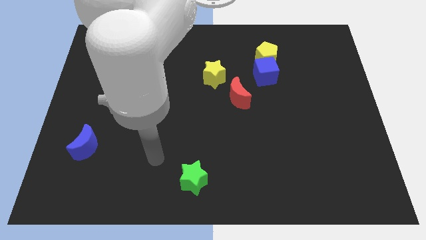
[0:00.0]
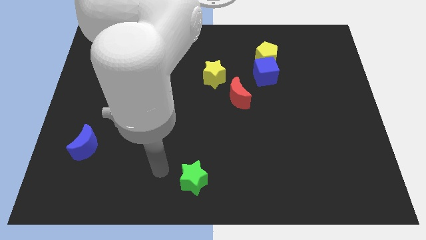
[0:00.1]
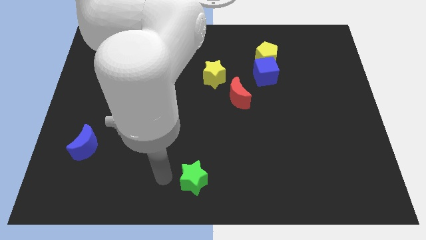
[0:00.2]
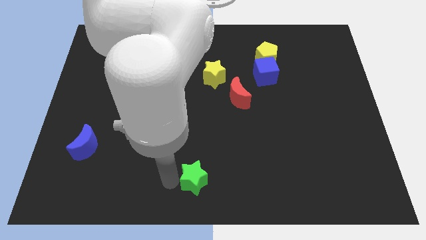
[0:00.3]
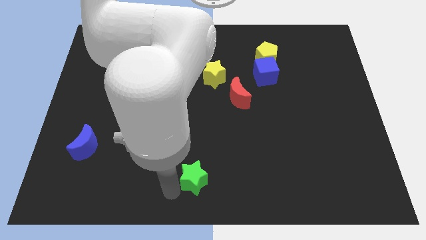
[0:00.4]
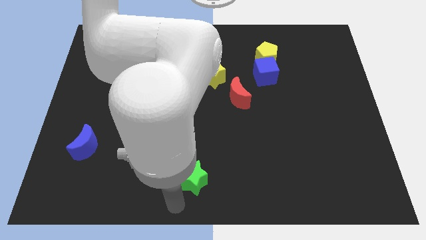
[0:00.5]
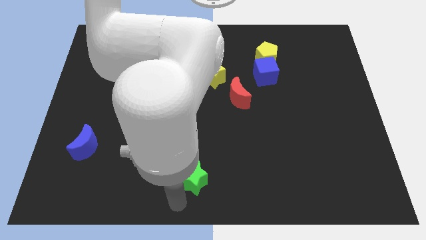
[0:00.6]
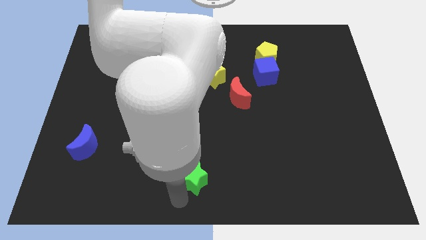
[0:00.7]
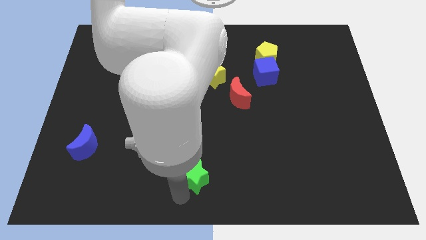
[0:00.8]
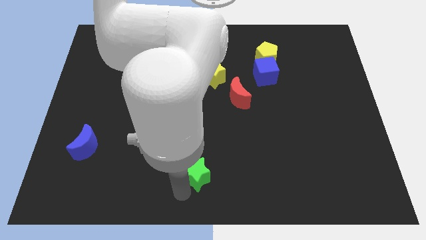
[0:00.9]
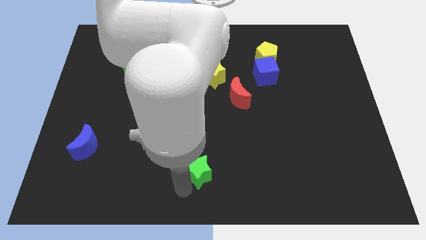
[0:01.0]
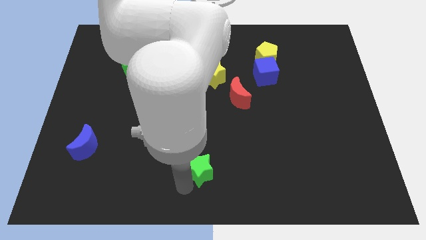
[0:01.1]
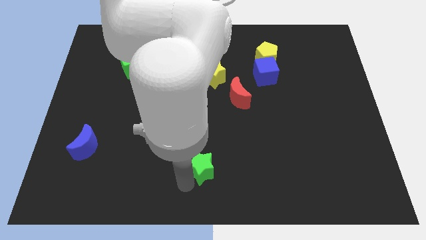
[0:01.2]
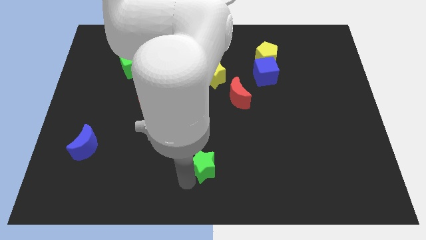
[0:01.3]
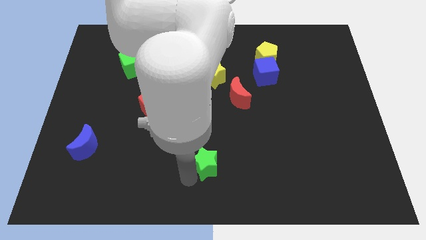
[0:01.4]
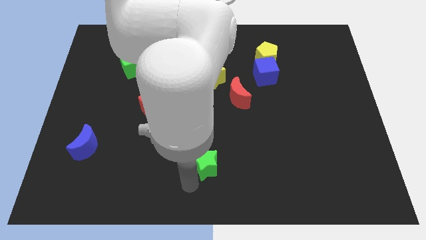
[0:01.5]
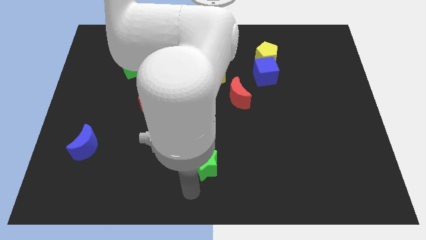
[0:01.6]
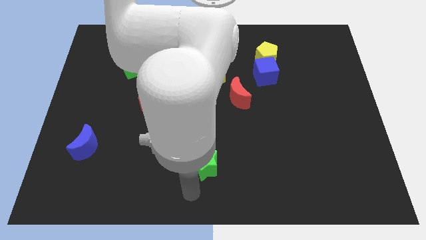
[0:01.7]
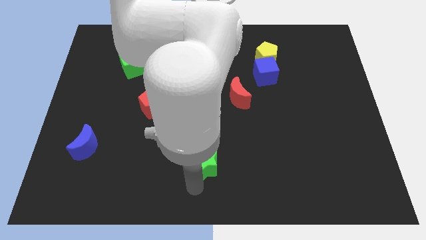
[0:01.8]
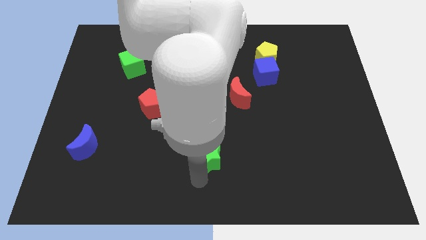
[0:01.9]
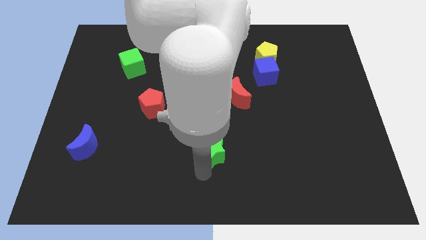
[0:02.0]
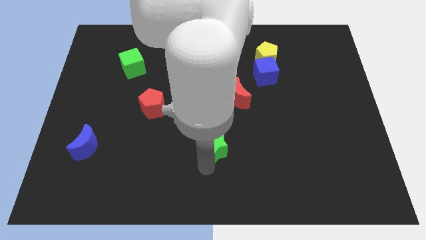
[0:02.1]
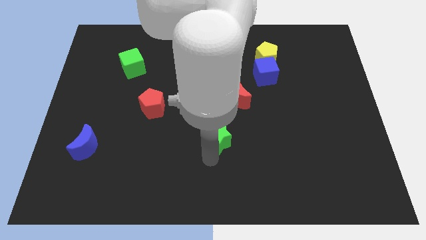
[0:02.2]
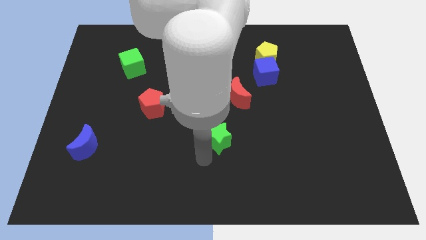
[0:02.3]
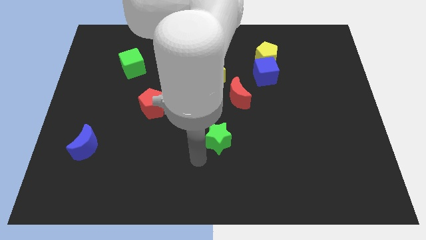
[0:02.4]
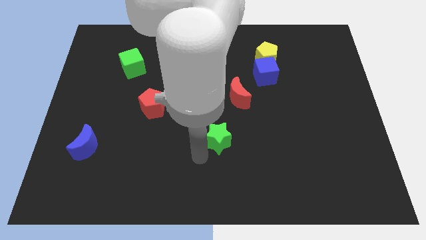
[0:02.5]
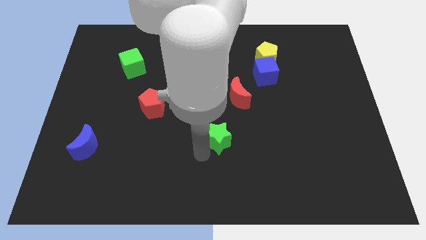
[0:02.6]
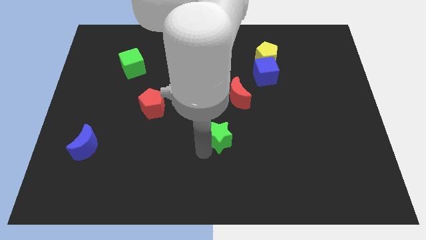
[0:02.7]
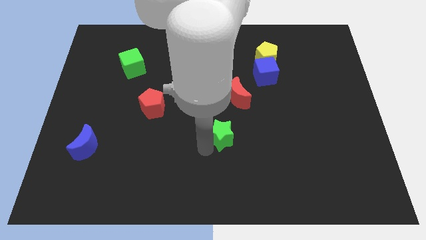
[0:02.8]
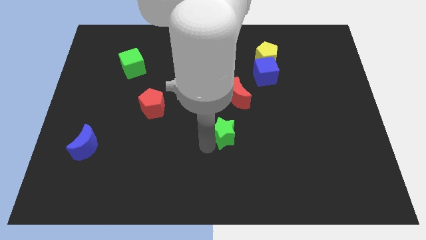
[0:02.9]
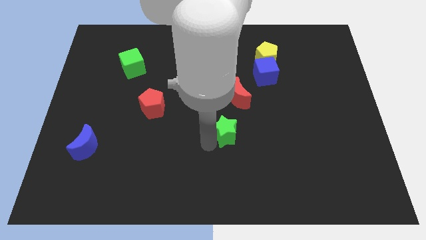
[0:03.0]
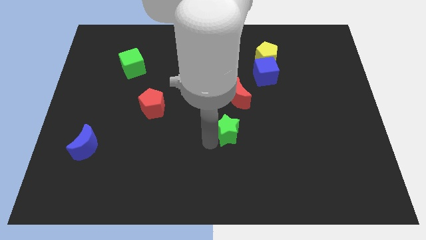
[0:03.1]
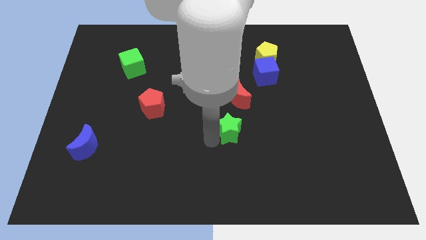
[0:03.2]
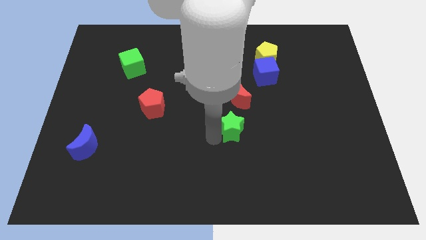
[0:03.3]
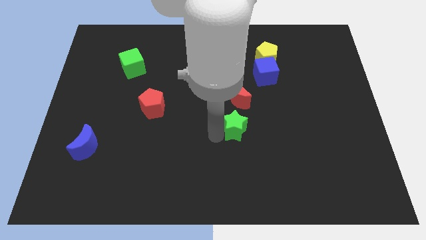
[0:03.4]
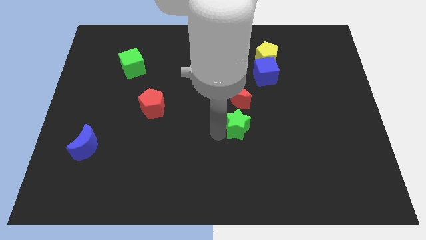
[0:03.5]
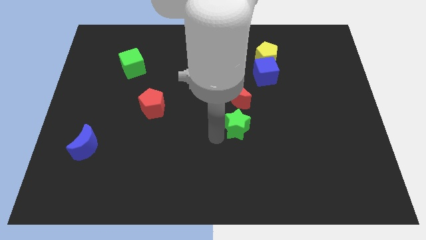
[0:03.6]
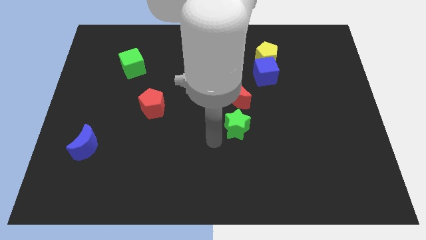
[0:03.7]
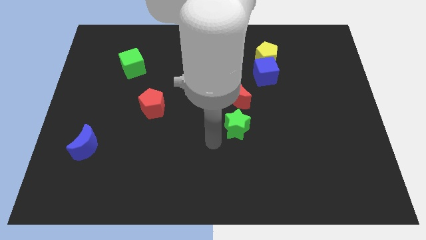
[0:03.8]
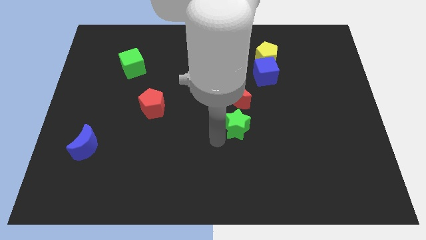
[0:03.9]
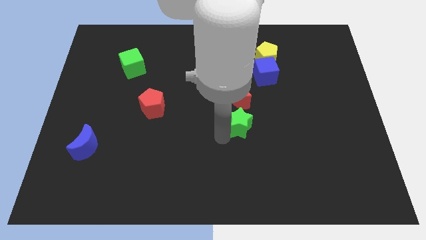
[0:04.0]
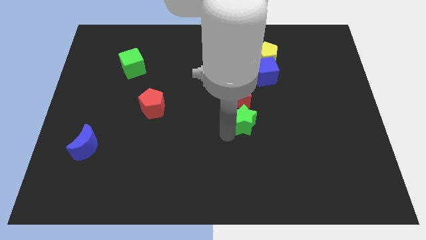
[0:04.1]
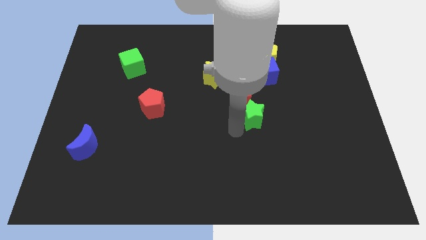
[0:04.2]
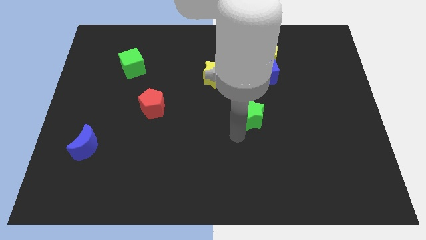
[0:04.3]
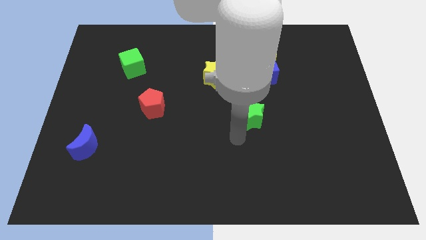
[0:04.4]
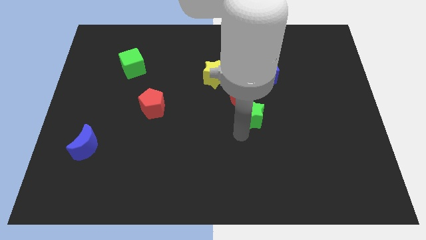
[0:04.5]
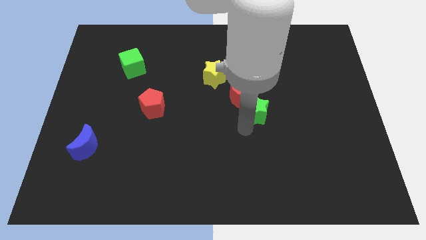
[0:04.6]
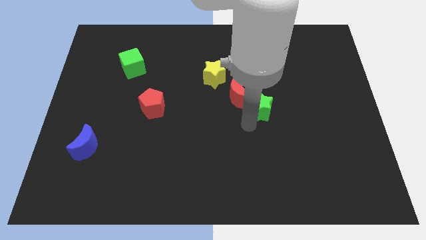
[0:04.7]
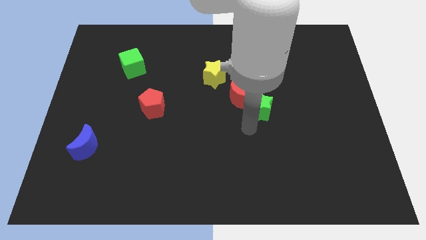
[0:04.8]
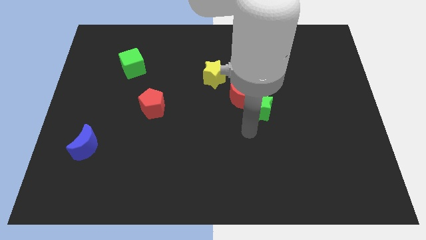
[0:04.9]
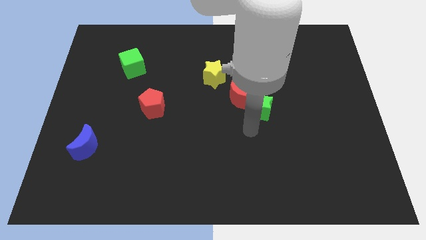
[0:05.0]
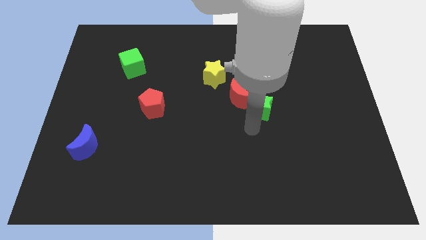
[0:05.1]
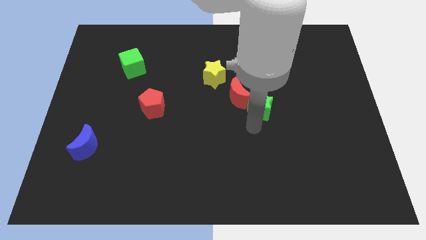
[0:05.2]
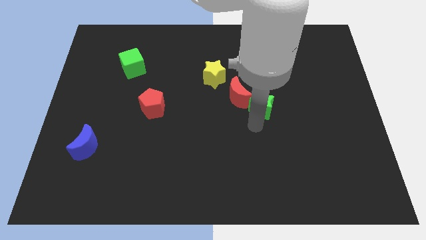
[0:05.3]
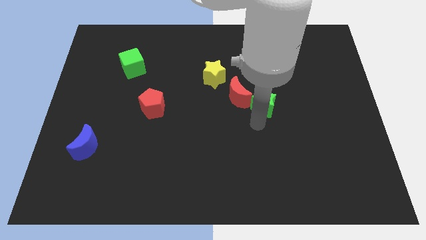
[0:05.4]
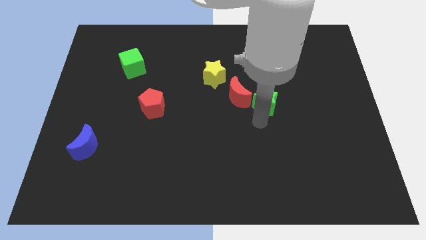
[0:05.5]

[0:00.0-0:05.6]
move the green star to the bottom of the yellow pentagon

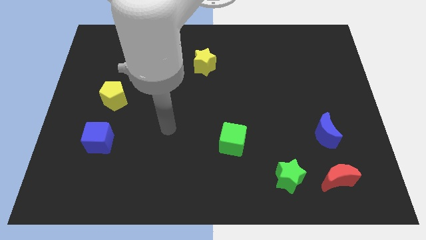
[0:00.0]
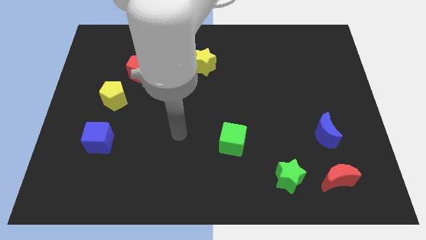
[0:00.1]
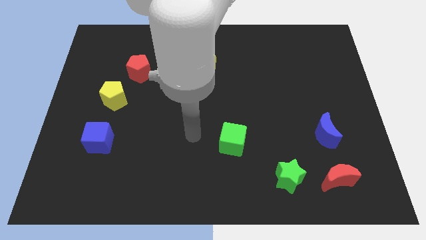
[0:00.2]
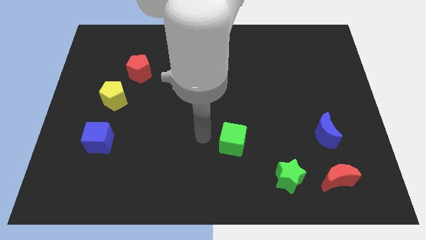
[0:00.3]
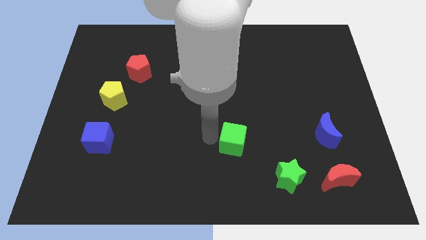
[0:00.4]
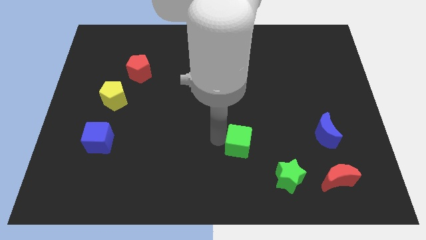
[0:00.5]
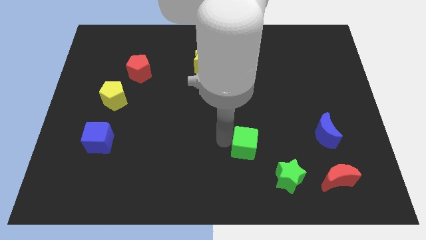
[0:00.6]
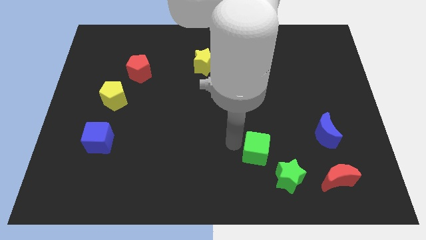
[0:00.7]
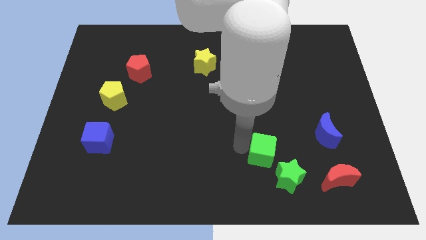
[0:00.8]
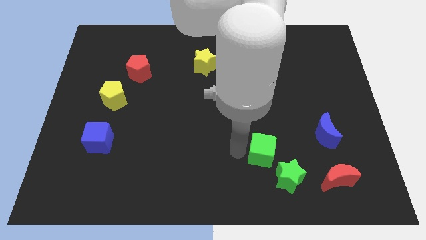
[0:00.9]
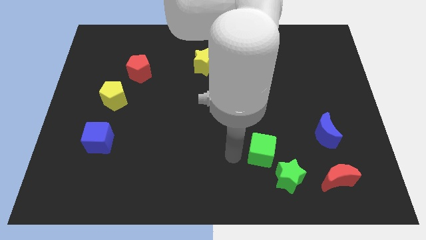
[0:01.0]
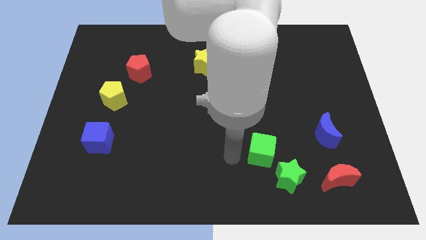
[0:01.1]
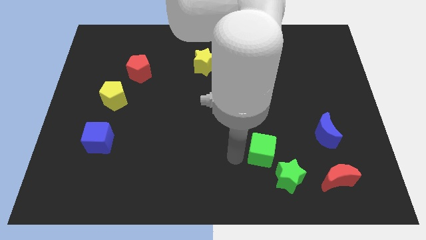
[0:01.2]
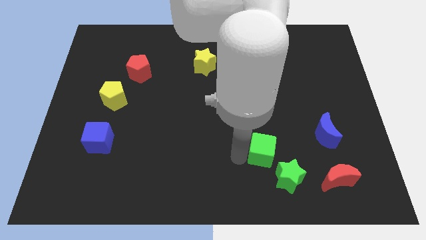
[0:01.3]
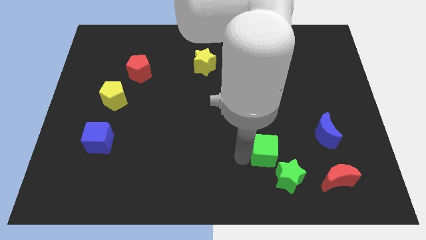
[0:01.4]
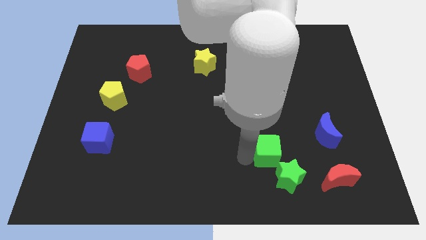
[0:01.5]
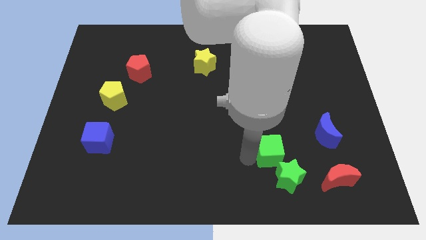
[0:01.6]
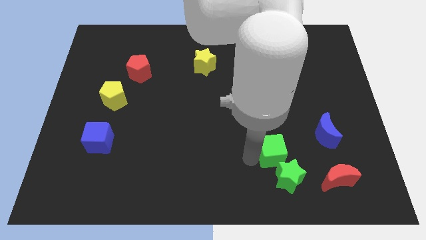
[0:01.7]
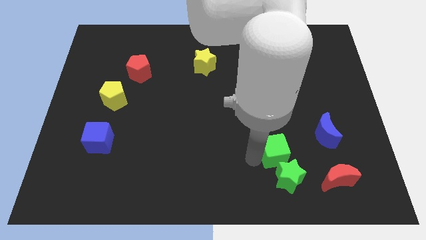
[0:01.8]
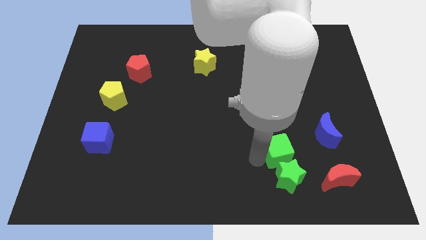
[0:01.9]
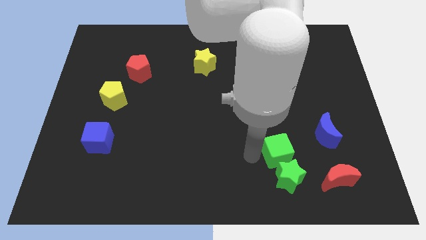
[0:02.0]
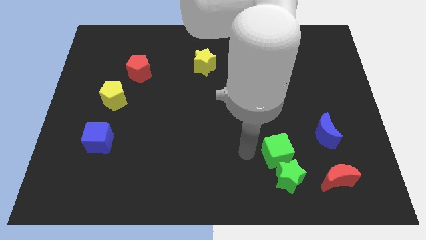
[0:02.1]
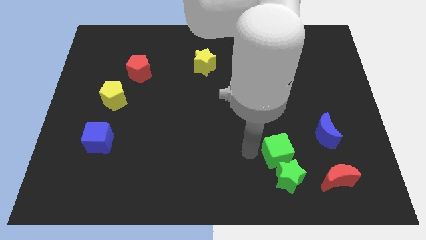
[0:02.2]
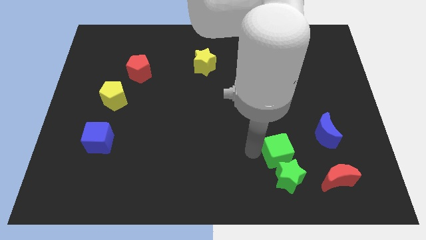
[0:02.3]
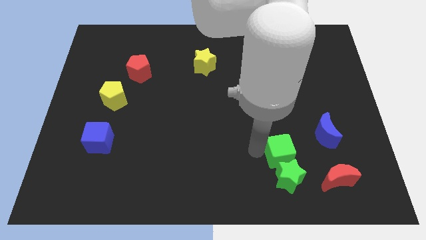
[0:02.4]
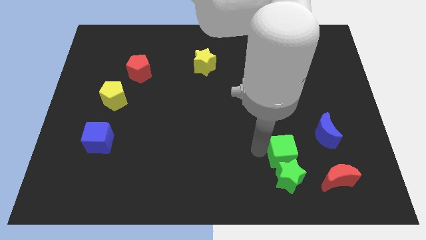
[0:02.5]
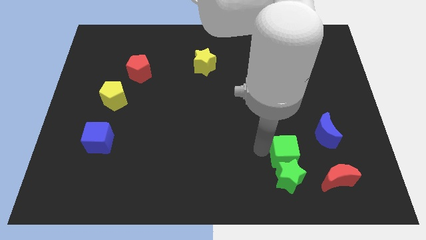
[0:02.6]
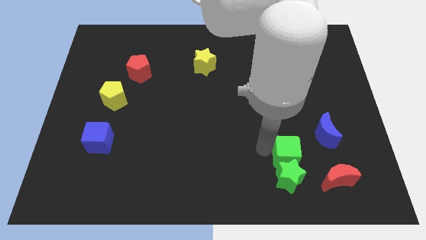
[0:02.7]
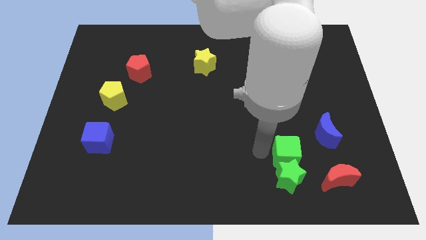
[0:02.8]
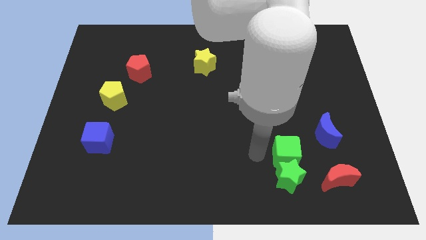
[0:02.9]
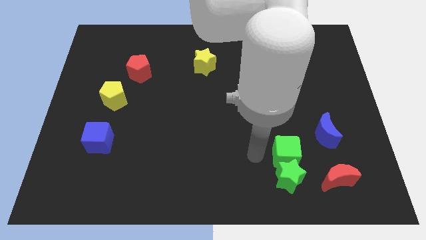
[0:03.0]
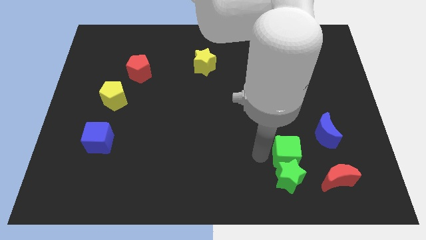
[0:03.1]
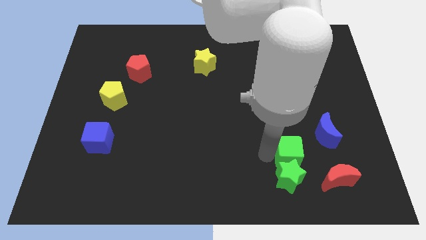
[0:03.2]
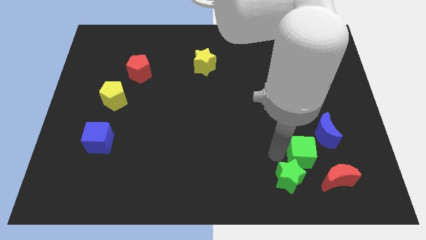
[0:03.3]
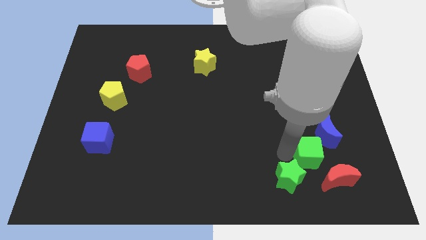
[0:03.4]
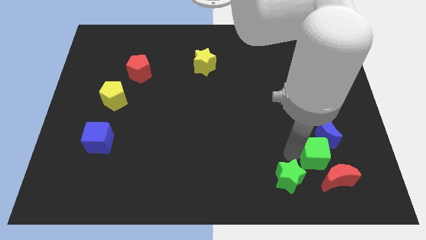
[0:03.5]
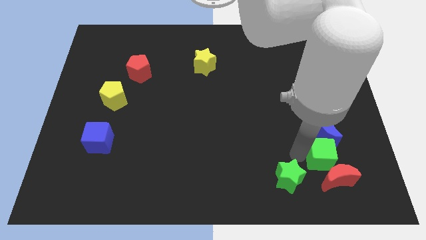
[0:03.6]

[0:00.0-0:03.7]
slide the green cube right of the green star
